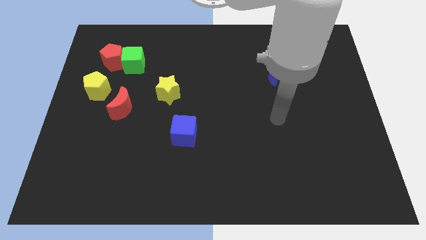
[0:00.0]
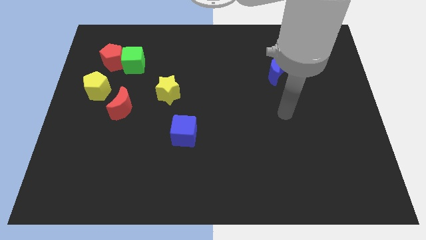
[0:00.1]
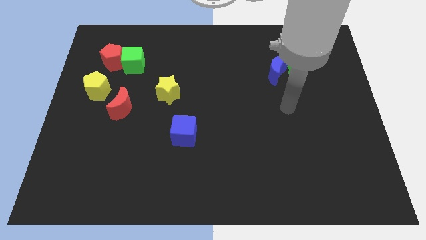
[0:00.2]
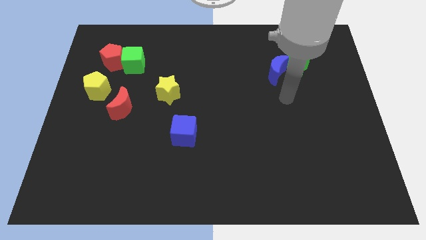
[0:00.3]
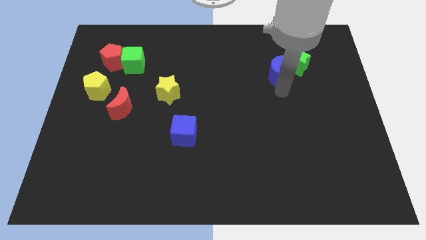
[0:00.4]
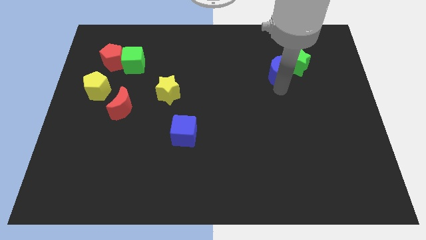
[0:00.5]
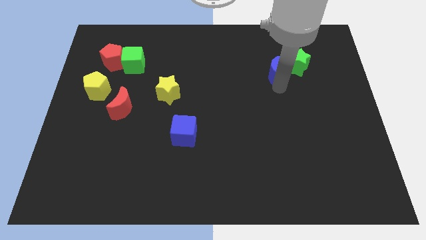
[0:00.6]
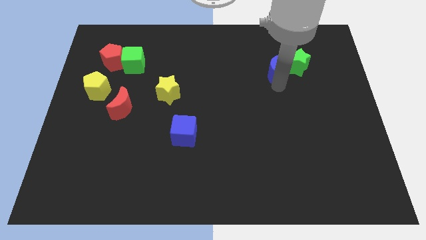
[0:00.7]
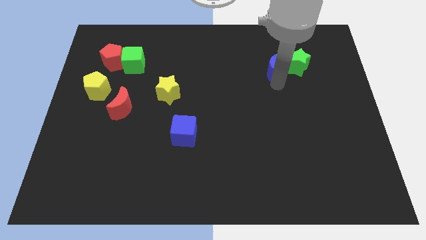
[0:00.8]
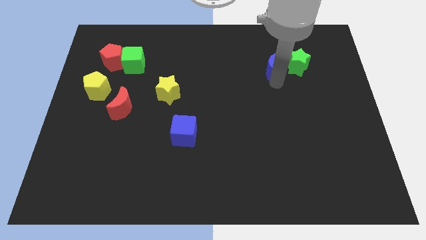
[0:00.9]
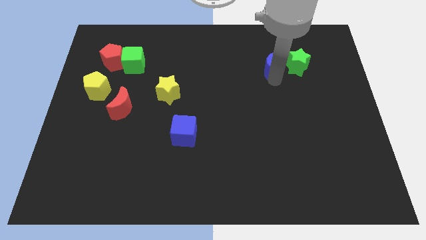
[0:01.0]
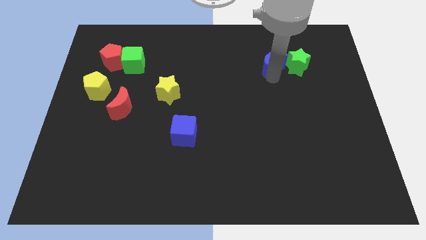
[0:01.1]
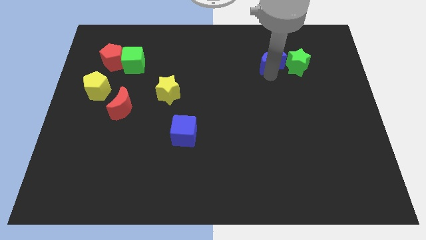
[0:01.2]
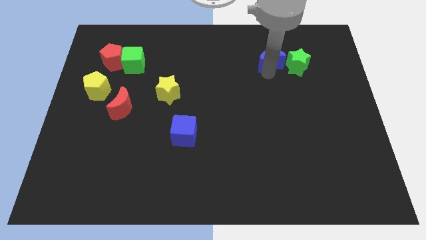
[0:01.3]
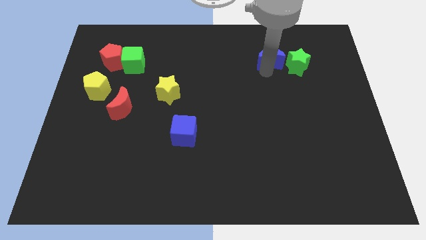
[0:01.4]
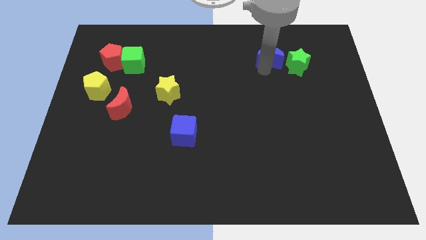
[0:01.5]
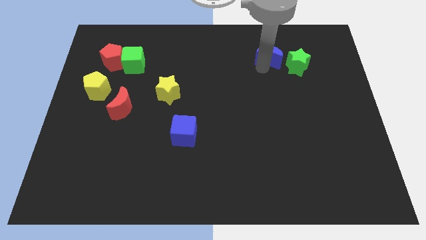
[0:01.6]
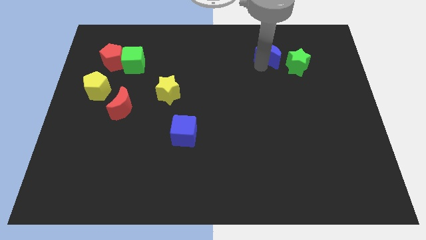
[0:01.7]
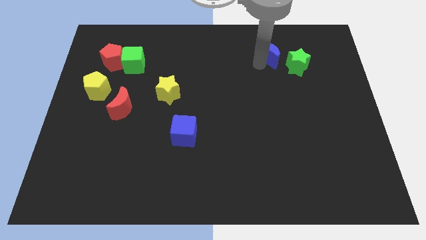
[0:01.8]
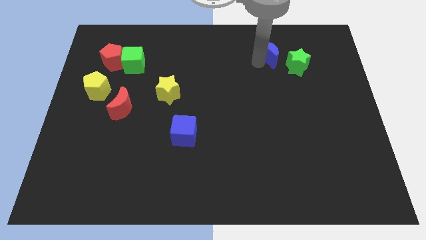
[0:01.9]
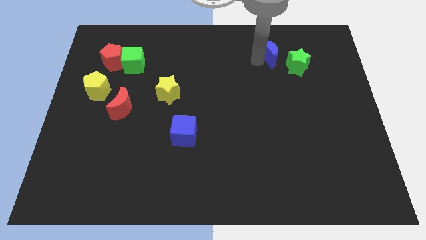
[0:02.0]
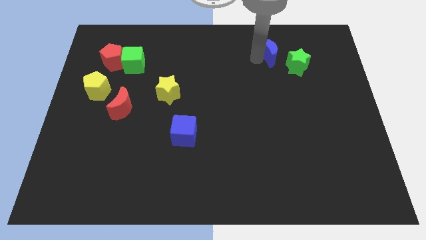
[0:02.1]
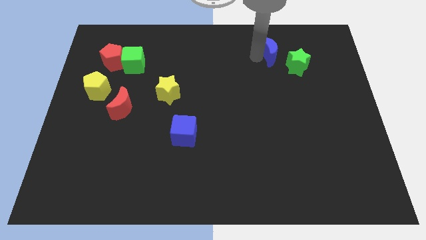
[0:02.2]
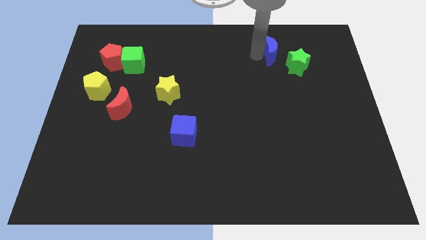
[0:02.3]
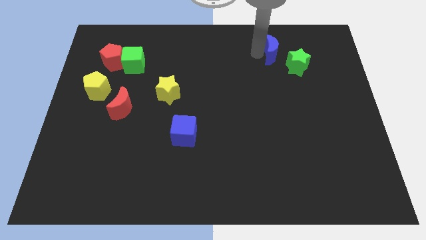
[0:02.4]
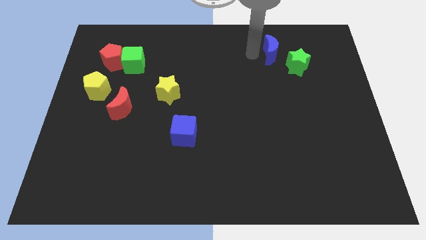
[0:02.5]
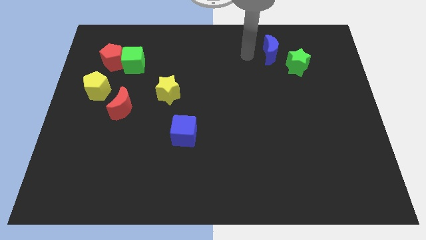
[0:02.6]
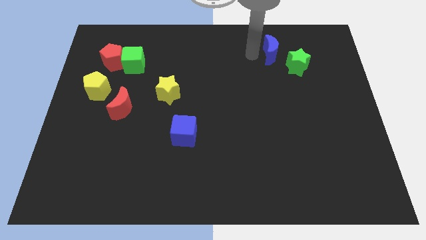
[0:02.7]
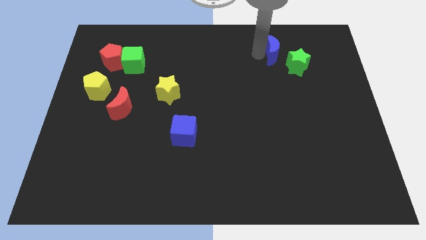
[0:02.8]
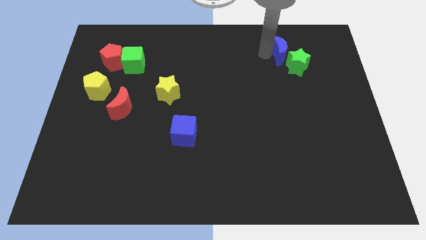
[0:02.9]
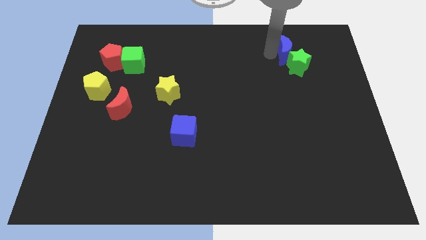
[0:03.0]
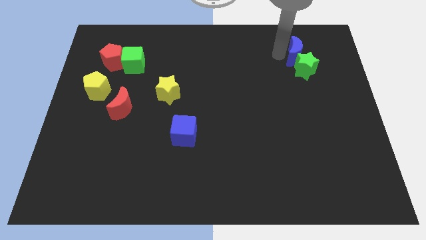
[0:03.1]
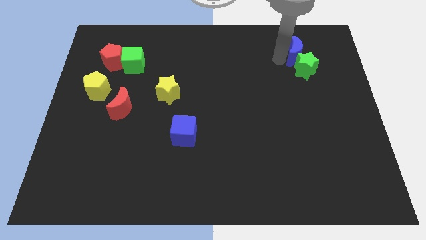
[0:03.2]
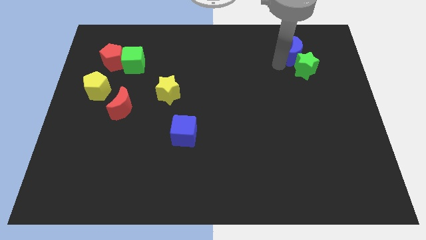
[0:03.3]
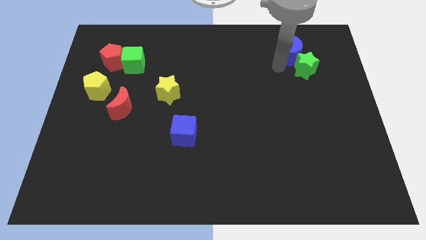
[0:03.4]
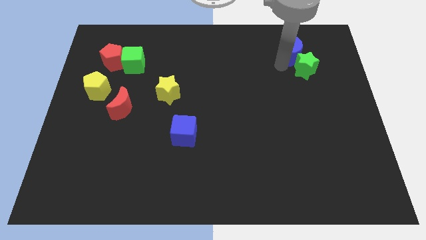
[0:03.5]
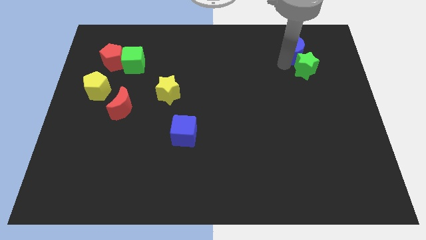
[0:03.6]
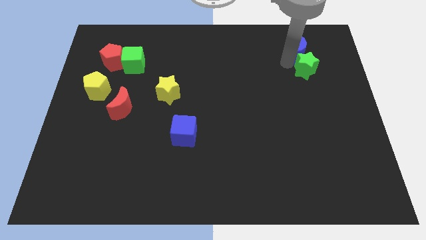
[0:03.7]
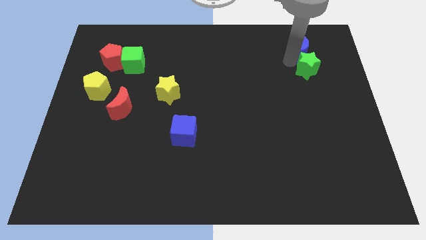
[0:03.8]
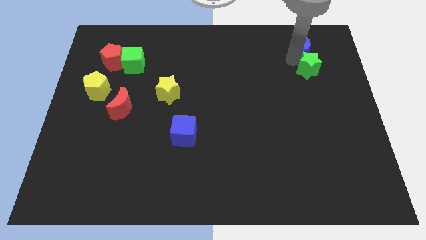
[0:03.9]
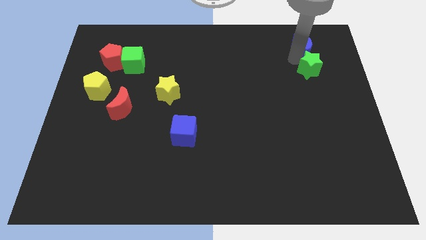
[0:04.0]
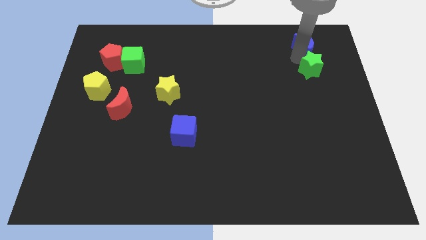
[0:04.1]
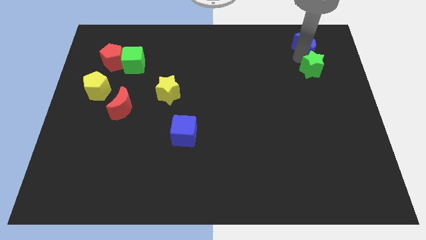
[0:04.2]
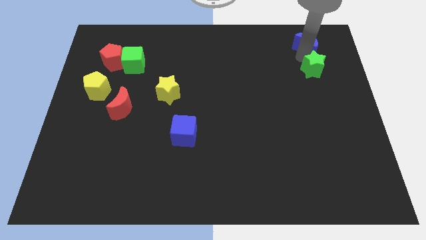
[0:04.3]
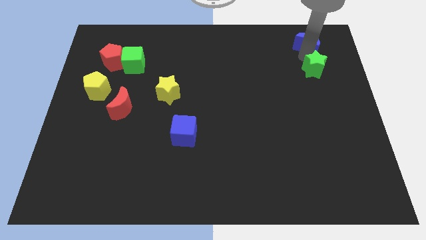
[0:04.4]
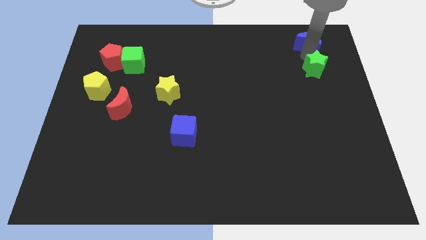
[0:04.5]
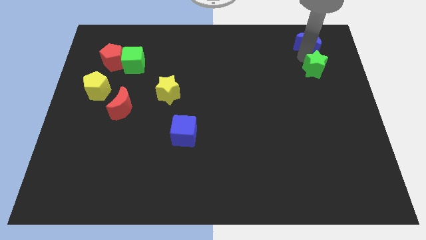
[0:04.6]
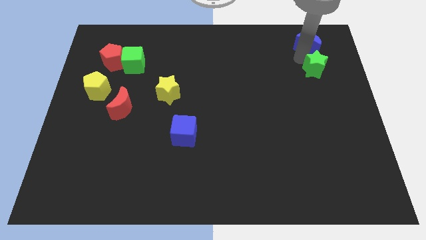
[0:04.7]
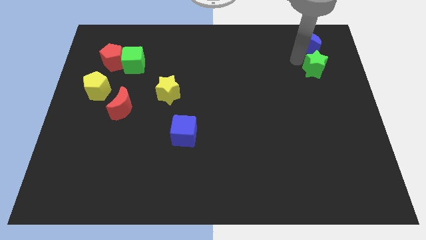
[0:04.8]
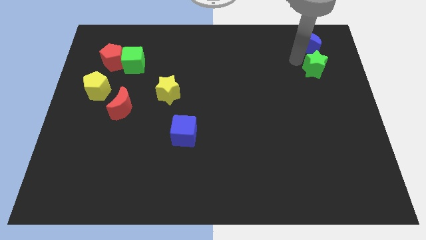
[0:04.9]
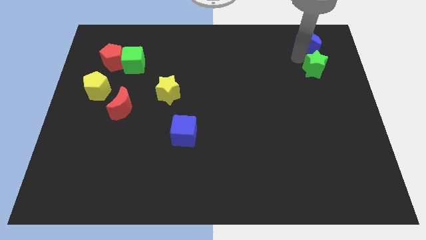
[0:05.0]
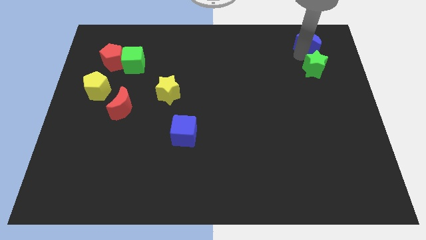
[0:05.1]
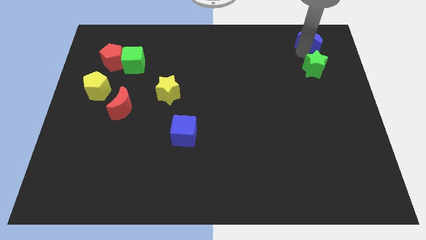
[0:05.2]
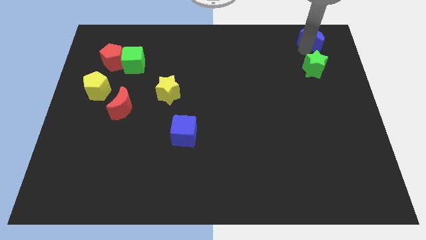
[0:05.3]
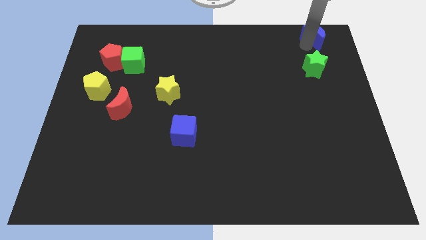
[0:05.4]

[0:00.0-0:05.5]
put the blue moon to the top right corner

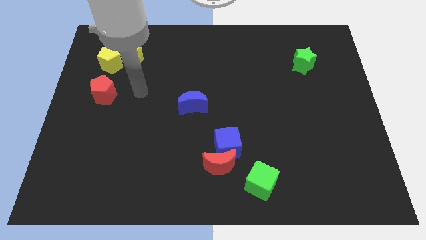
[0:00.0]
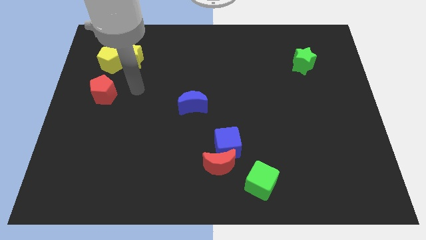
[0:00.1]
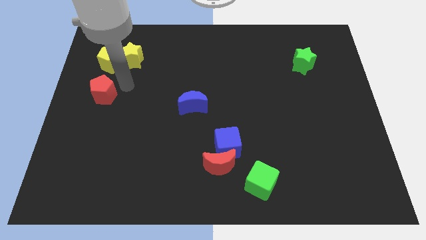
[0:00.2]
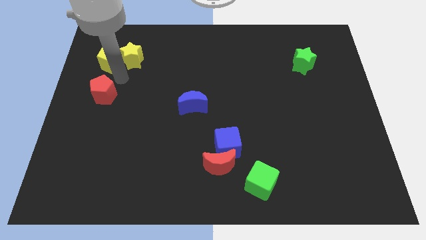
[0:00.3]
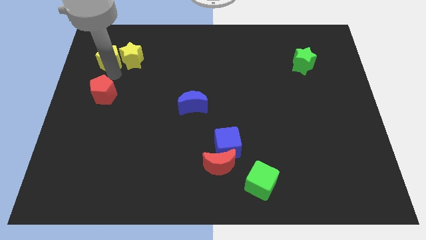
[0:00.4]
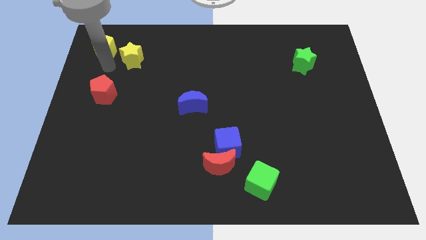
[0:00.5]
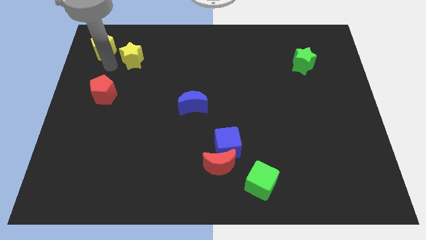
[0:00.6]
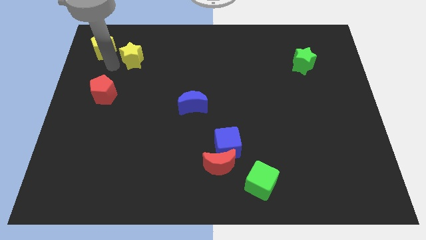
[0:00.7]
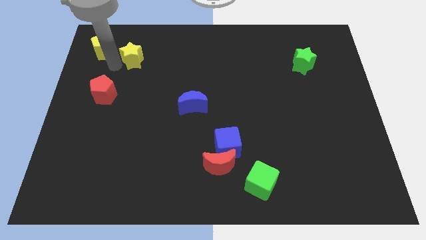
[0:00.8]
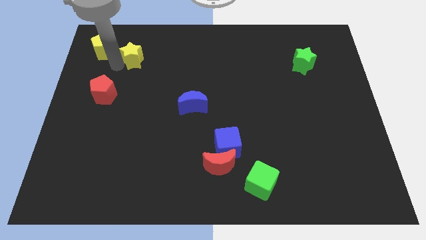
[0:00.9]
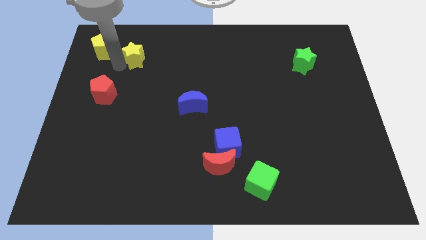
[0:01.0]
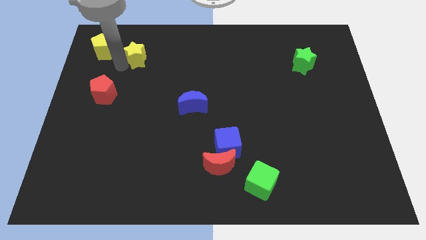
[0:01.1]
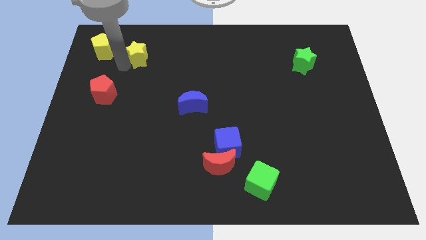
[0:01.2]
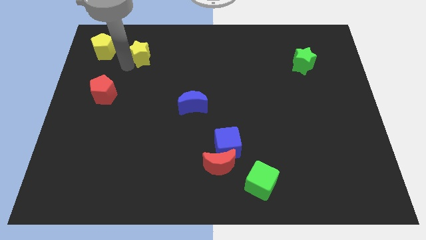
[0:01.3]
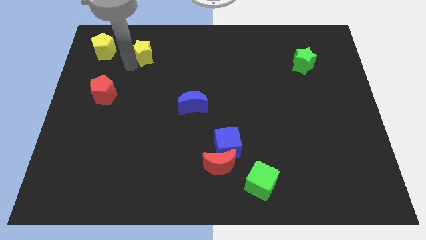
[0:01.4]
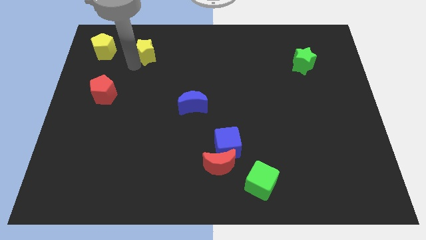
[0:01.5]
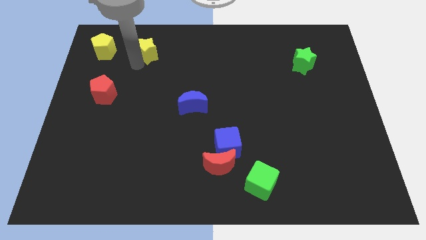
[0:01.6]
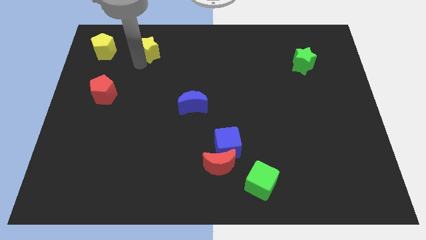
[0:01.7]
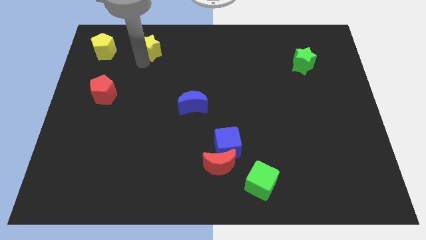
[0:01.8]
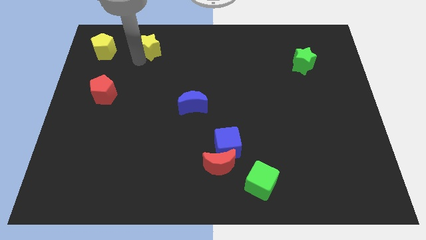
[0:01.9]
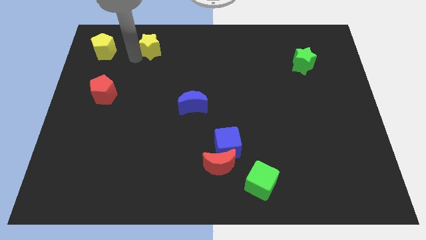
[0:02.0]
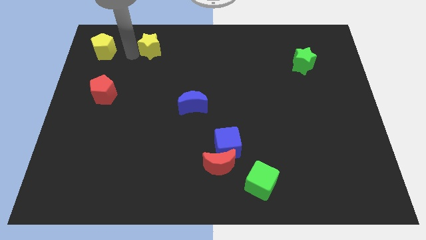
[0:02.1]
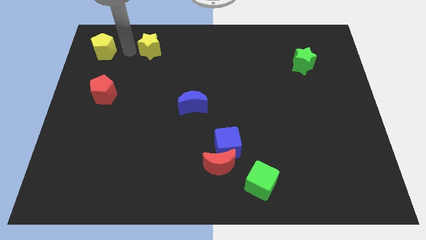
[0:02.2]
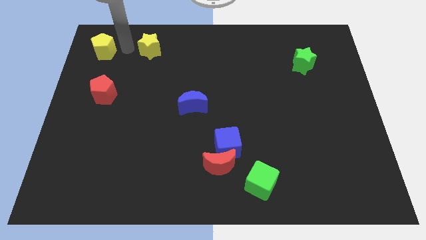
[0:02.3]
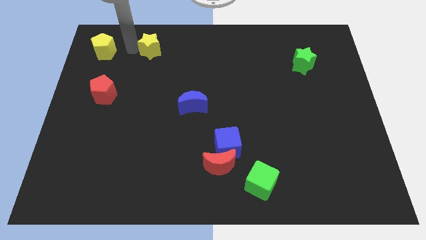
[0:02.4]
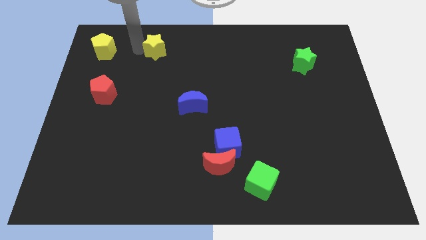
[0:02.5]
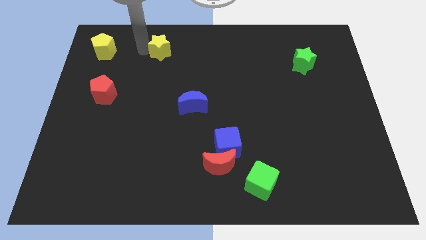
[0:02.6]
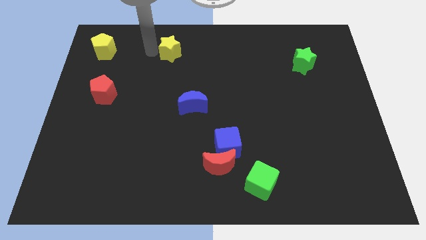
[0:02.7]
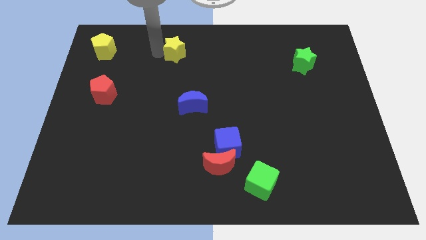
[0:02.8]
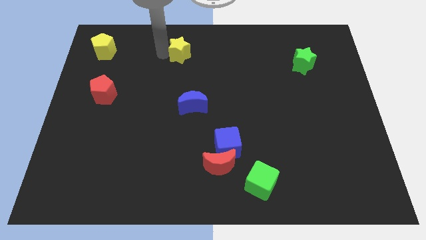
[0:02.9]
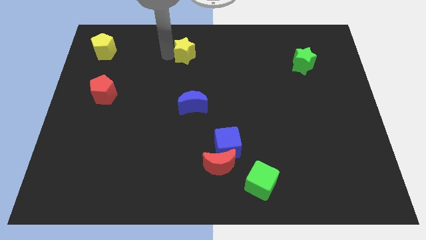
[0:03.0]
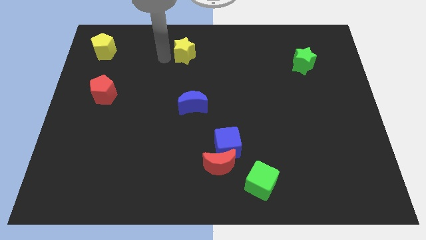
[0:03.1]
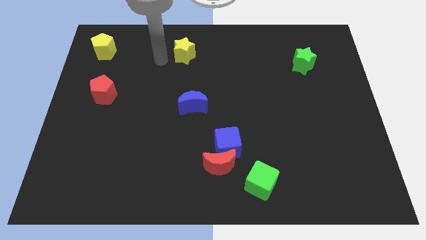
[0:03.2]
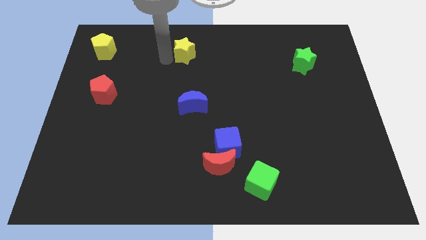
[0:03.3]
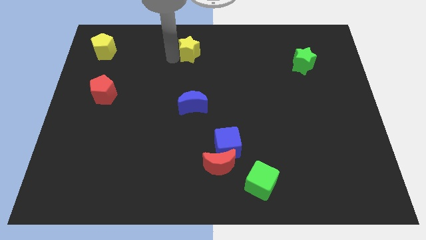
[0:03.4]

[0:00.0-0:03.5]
move the yellow star to the top
